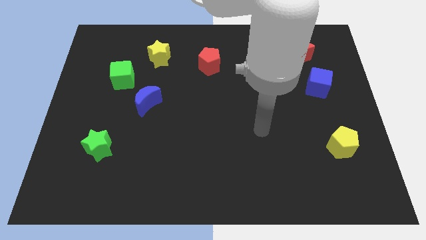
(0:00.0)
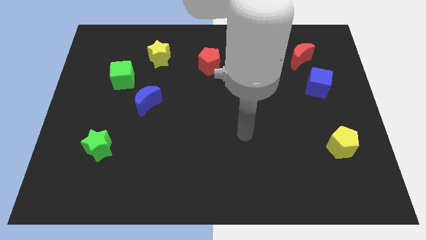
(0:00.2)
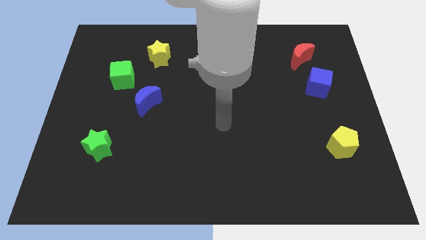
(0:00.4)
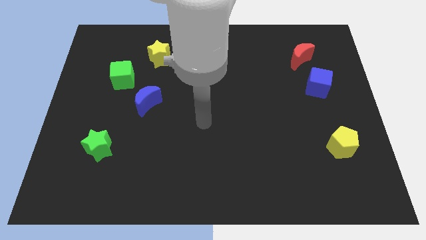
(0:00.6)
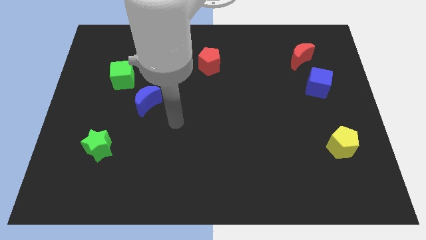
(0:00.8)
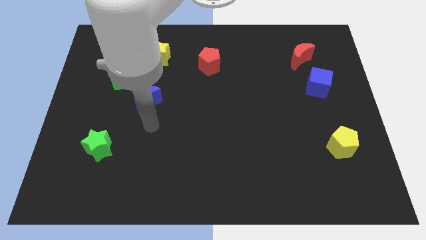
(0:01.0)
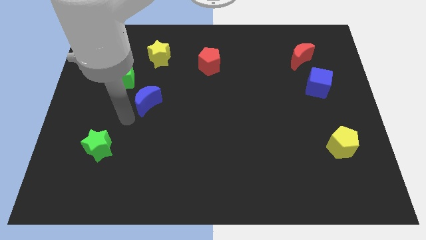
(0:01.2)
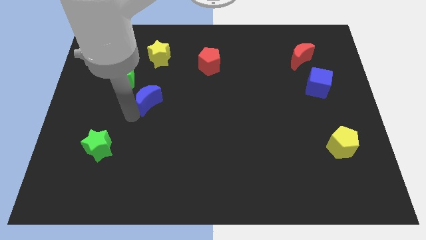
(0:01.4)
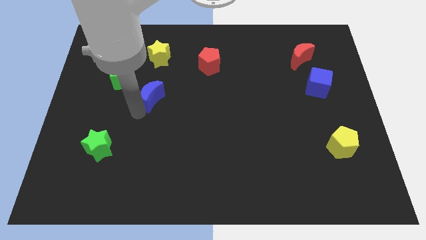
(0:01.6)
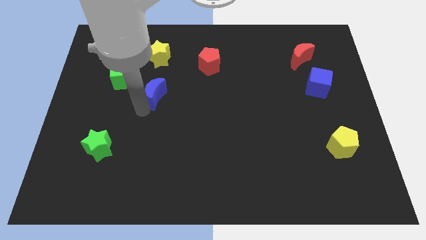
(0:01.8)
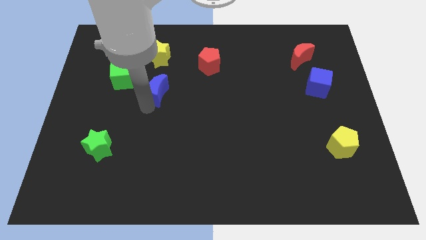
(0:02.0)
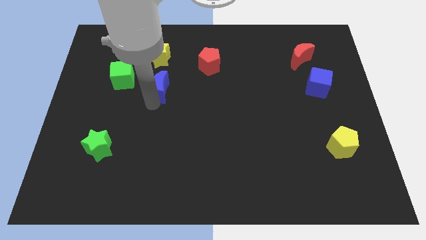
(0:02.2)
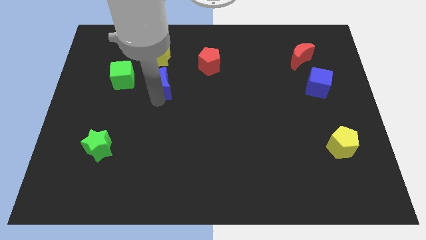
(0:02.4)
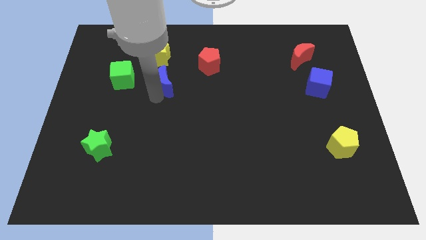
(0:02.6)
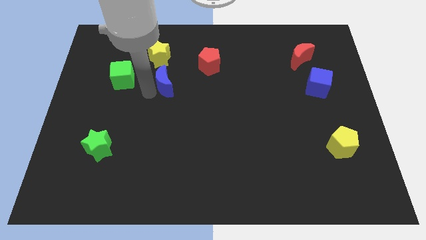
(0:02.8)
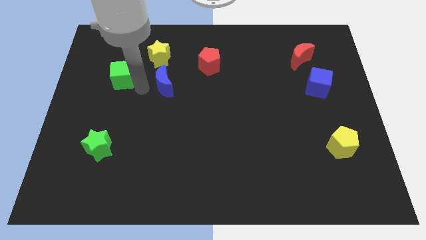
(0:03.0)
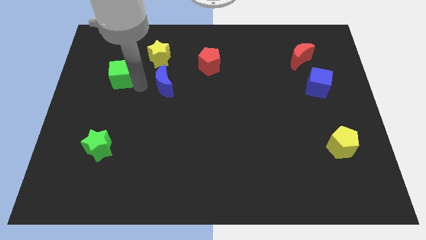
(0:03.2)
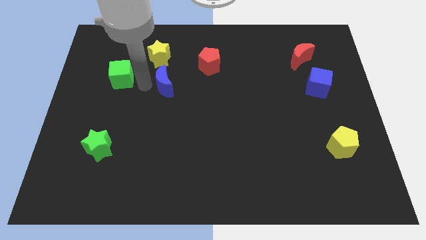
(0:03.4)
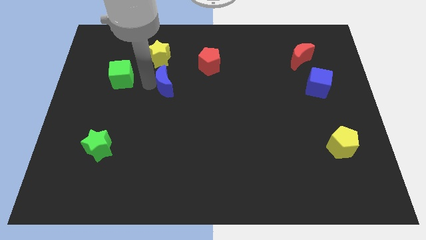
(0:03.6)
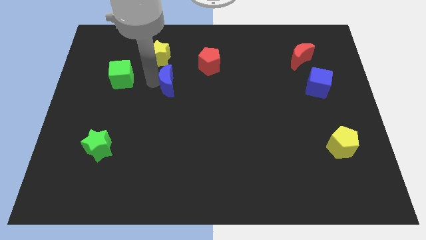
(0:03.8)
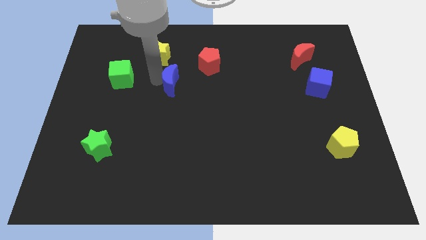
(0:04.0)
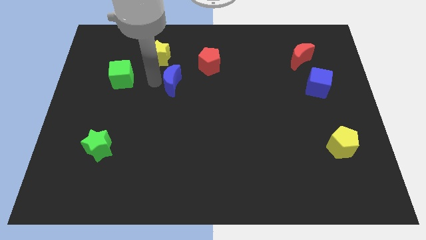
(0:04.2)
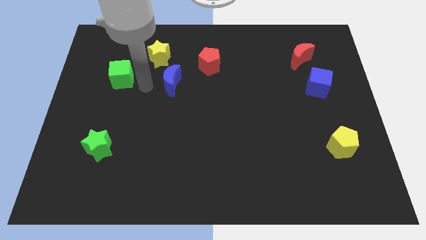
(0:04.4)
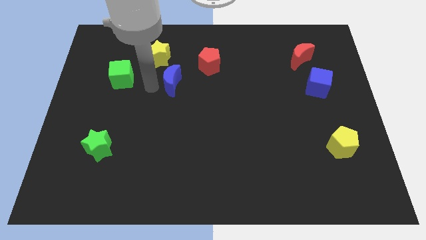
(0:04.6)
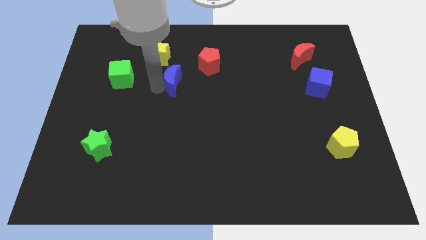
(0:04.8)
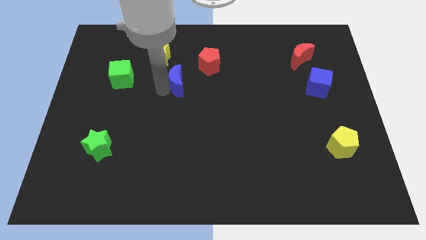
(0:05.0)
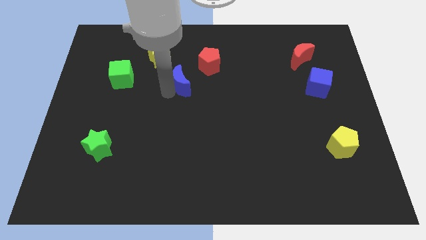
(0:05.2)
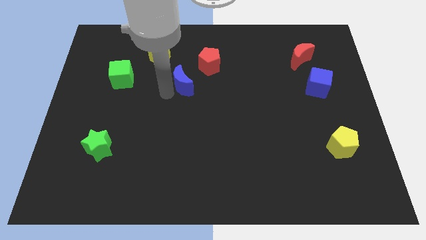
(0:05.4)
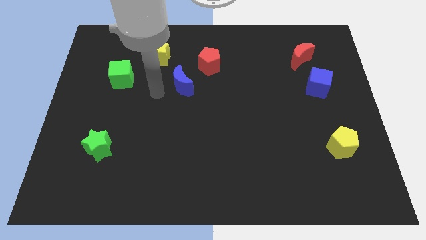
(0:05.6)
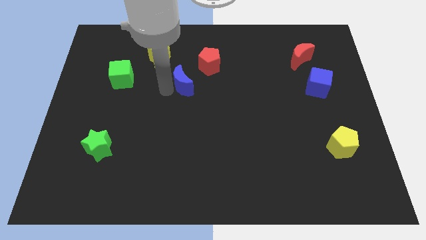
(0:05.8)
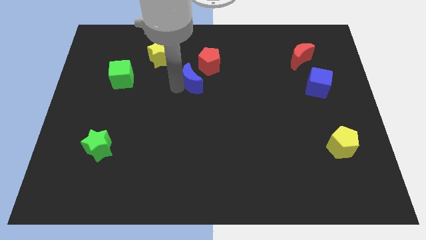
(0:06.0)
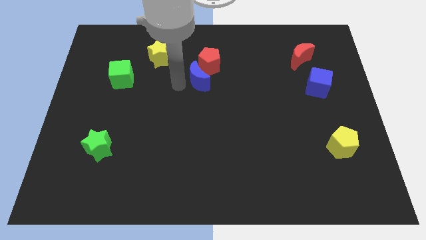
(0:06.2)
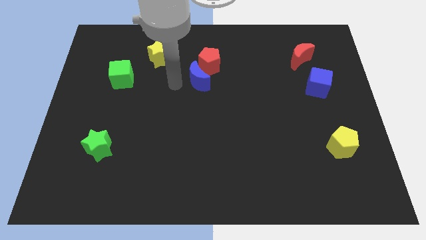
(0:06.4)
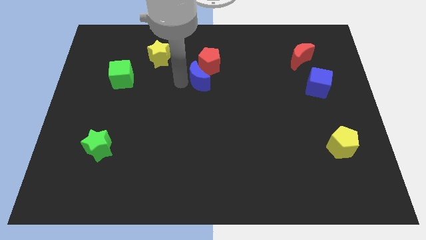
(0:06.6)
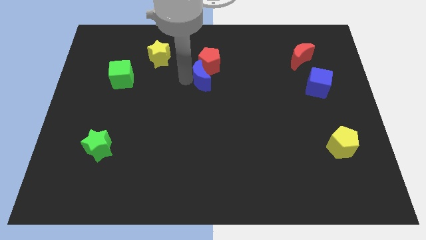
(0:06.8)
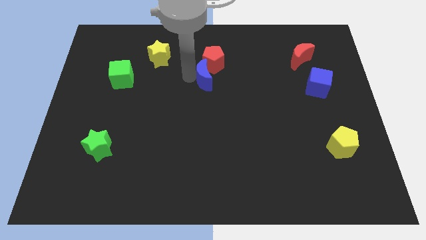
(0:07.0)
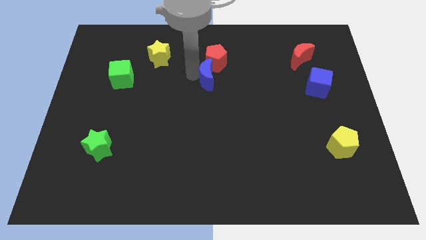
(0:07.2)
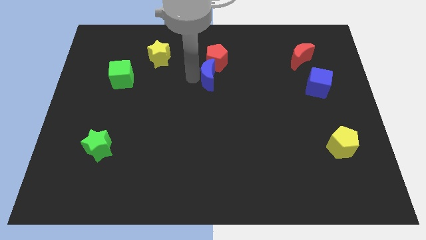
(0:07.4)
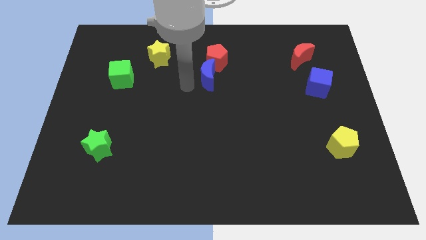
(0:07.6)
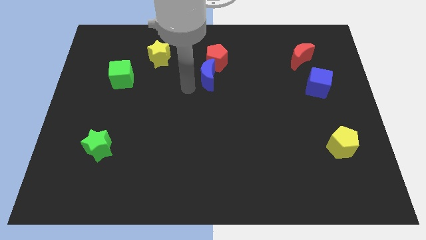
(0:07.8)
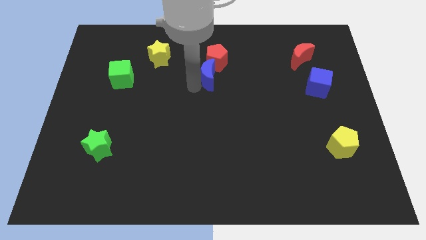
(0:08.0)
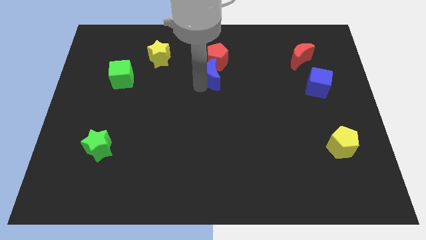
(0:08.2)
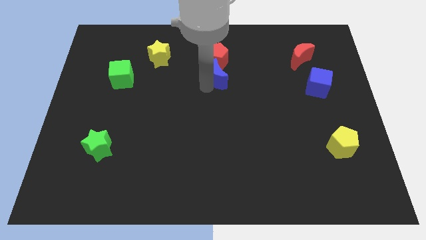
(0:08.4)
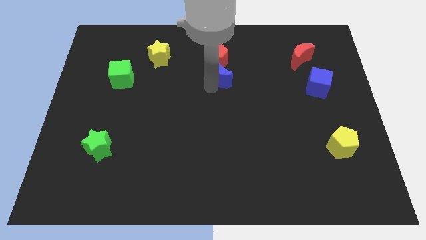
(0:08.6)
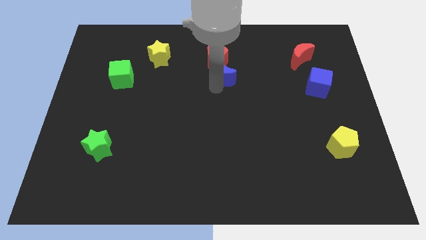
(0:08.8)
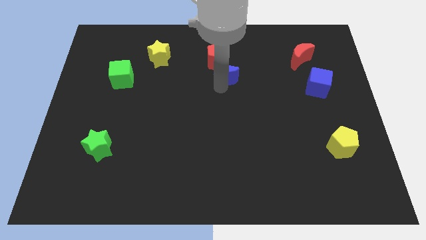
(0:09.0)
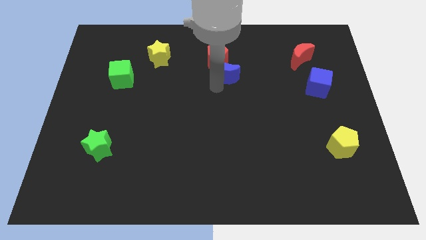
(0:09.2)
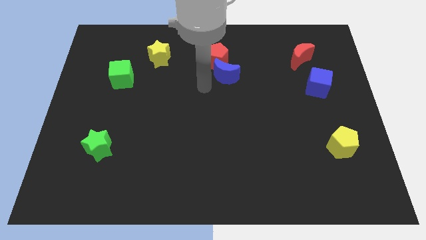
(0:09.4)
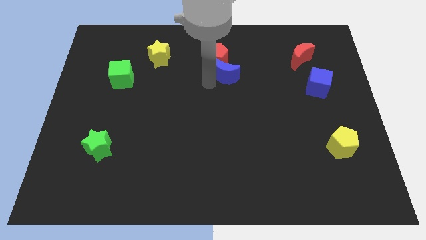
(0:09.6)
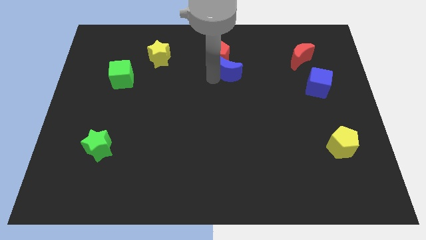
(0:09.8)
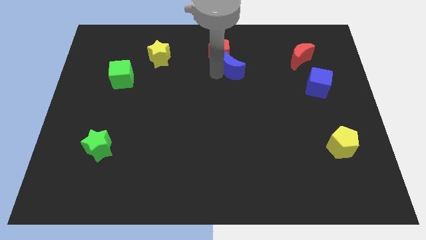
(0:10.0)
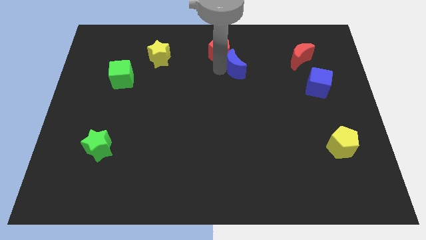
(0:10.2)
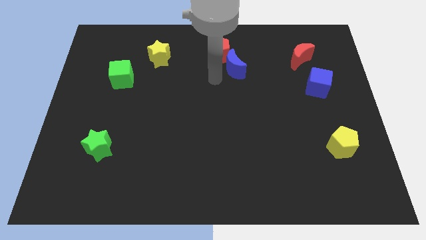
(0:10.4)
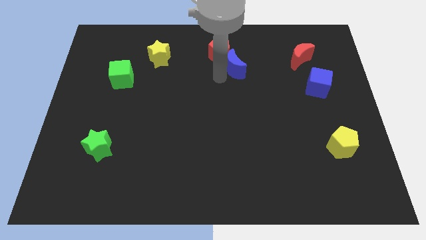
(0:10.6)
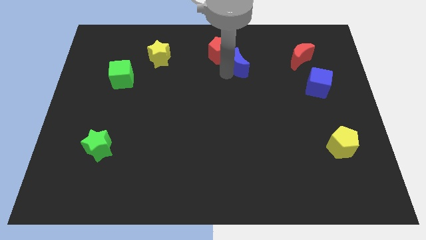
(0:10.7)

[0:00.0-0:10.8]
put the blue moon to the right of the red pentagon

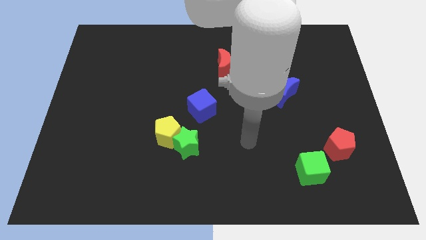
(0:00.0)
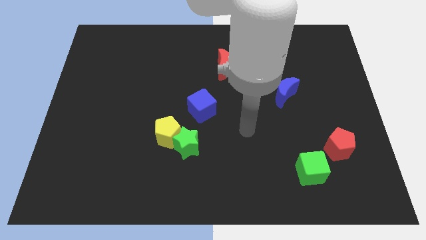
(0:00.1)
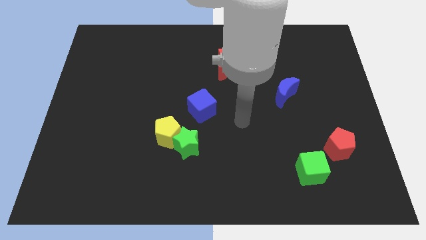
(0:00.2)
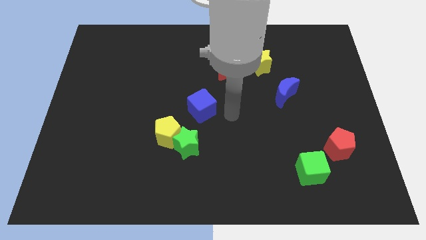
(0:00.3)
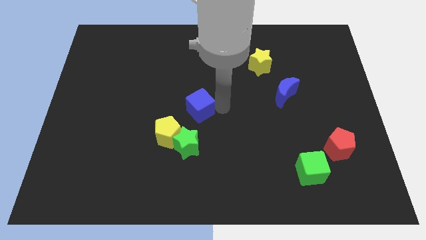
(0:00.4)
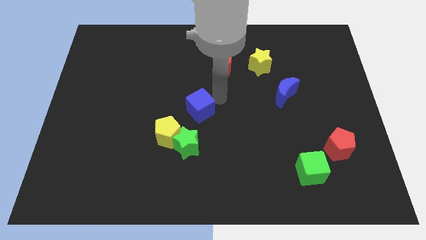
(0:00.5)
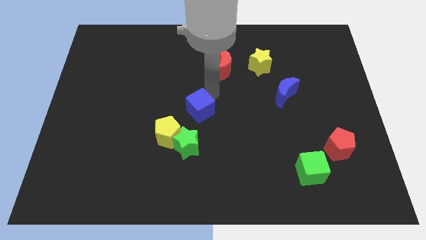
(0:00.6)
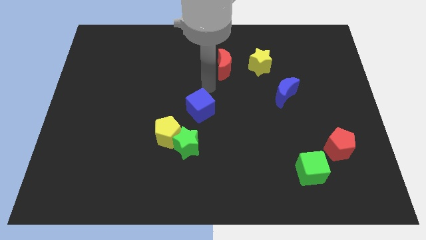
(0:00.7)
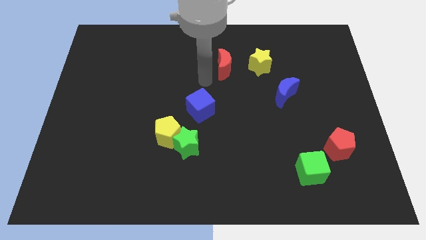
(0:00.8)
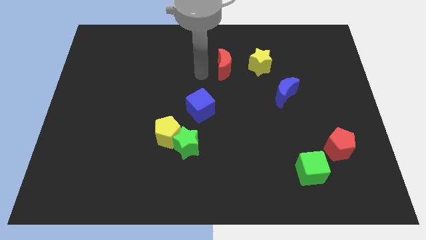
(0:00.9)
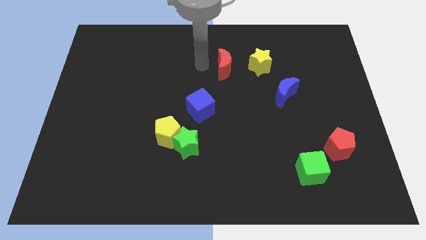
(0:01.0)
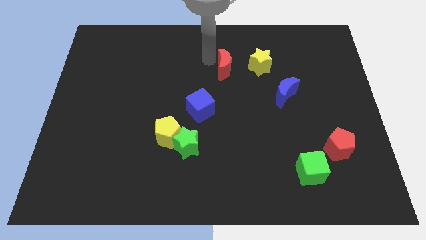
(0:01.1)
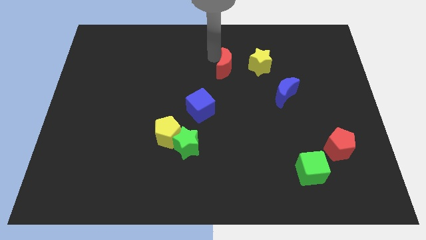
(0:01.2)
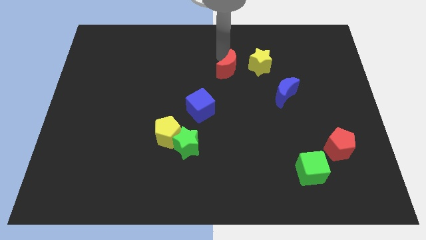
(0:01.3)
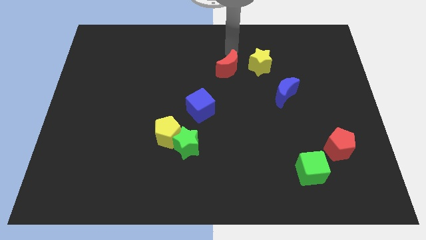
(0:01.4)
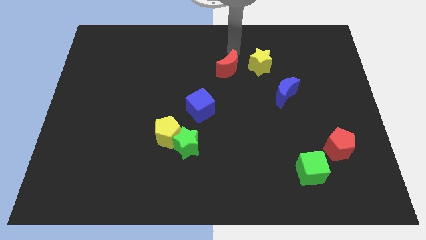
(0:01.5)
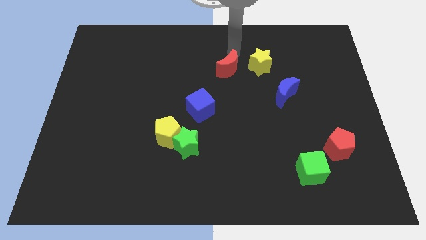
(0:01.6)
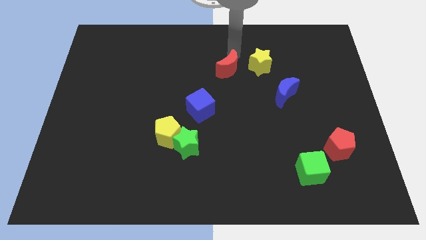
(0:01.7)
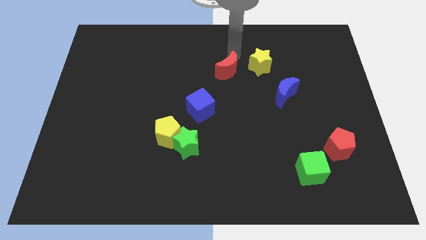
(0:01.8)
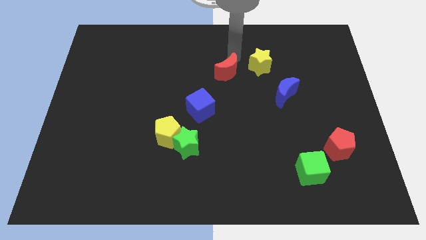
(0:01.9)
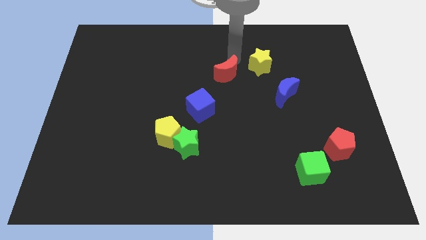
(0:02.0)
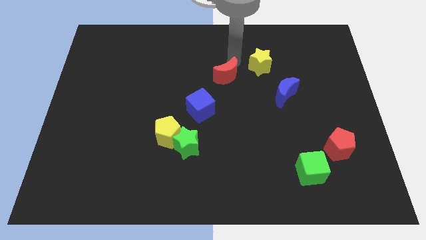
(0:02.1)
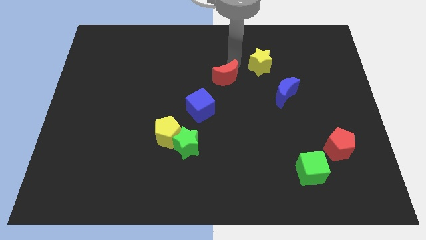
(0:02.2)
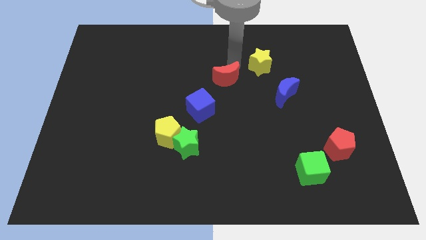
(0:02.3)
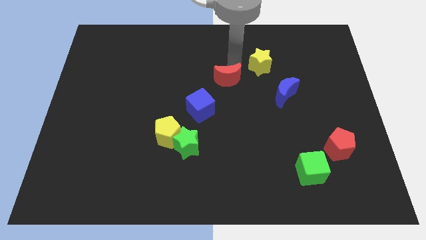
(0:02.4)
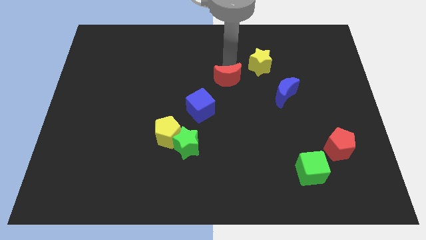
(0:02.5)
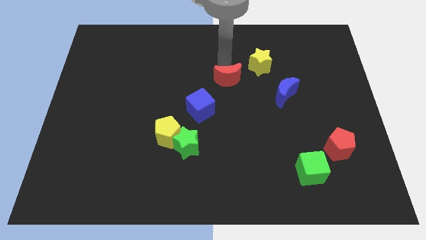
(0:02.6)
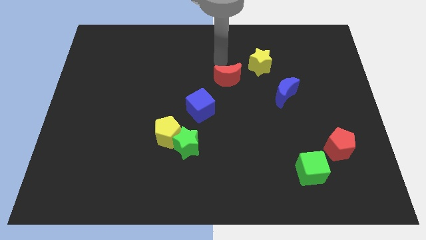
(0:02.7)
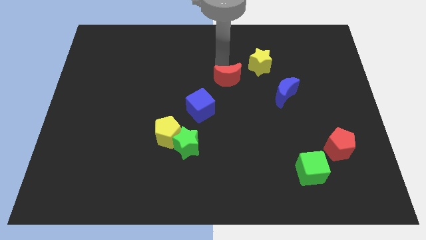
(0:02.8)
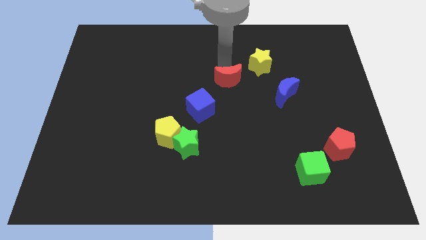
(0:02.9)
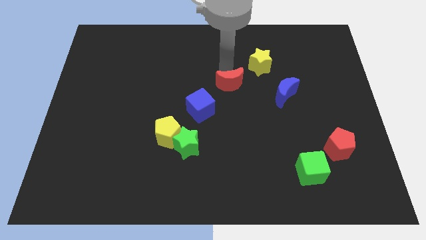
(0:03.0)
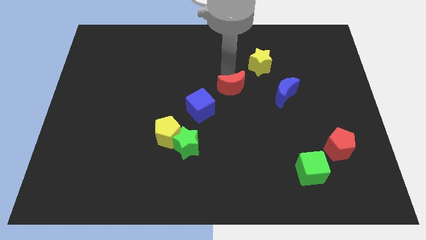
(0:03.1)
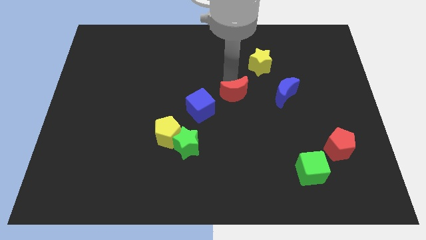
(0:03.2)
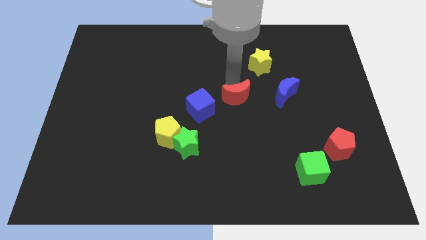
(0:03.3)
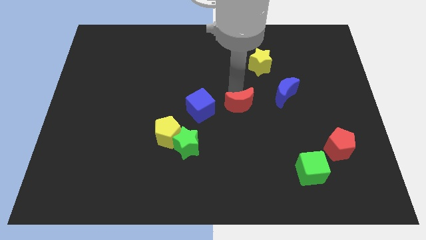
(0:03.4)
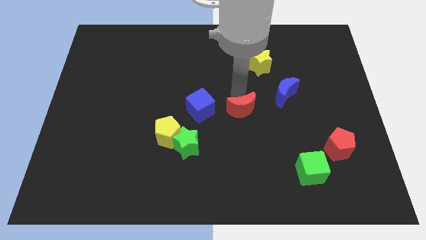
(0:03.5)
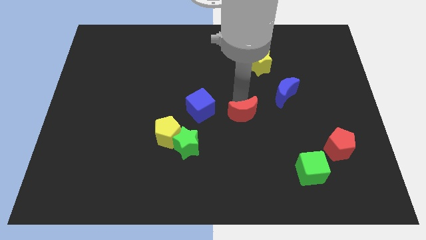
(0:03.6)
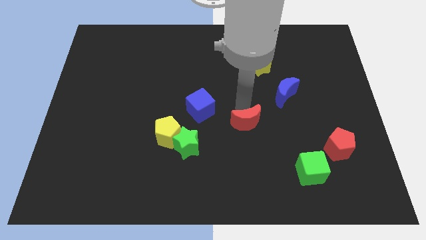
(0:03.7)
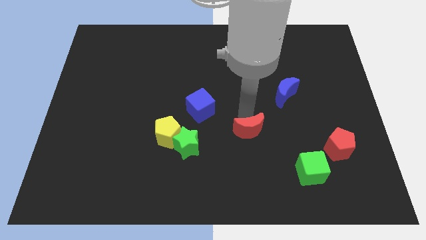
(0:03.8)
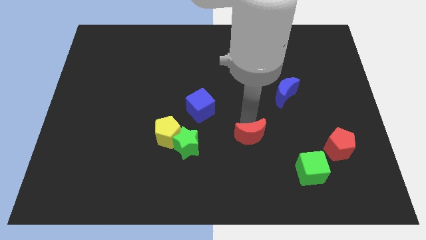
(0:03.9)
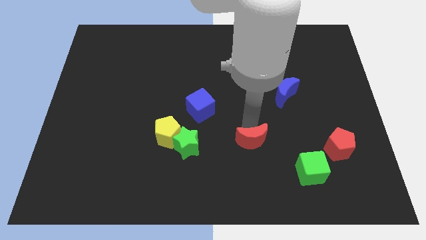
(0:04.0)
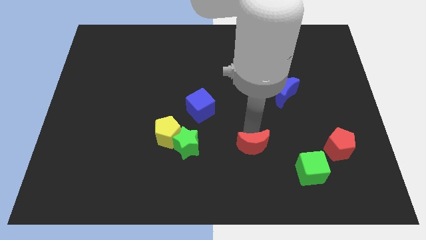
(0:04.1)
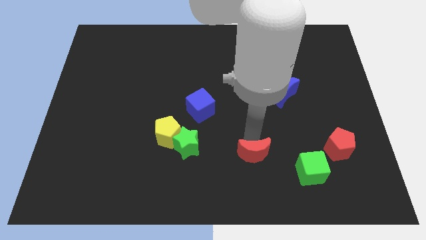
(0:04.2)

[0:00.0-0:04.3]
move the red moon left of the green cube
